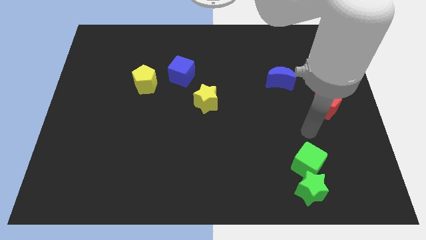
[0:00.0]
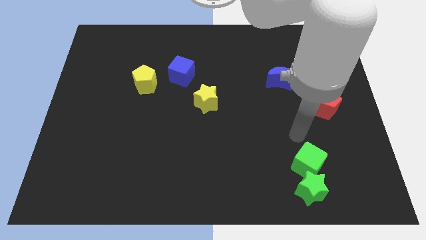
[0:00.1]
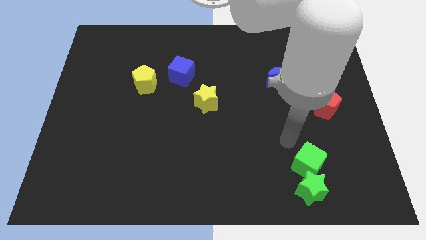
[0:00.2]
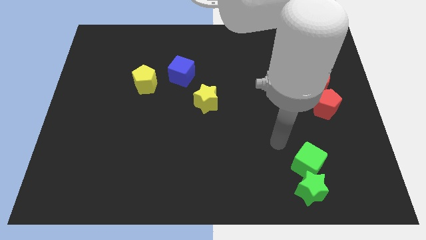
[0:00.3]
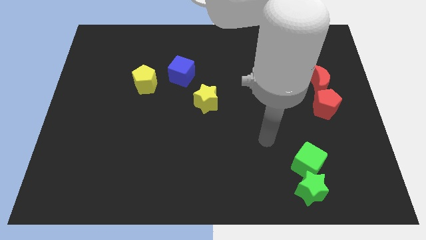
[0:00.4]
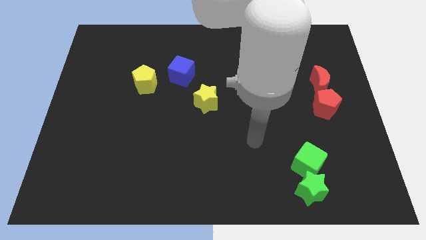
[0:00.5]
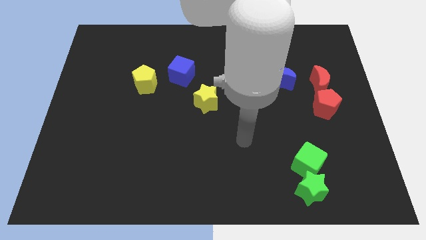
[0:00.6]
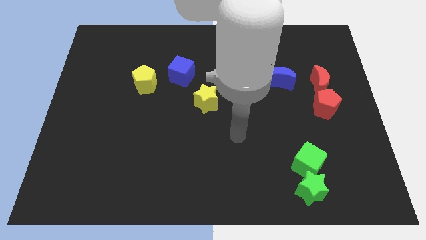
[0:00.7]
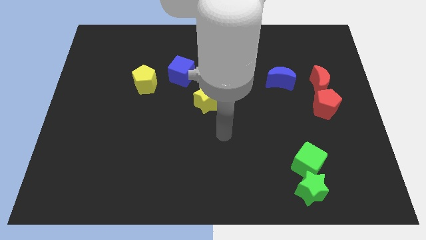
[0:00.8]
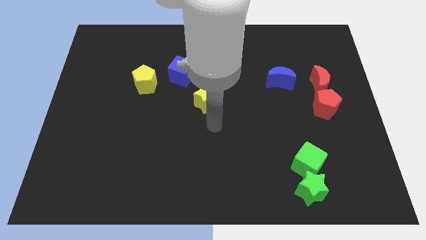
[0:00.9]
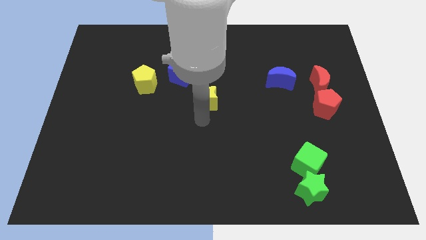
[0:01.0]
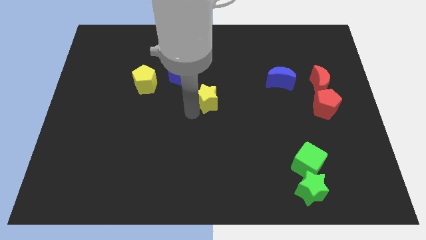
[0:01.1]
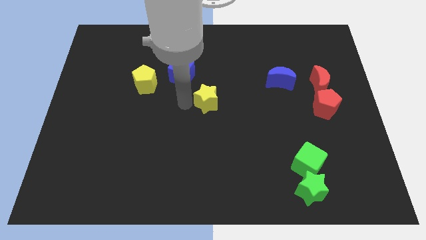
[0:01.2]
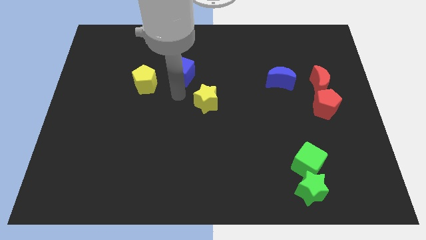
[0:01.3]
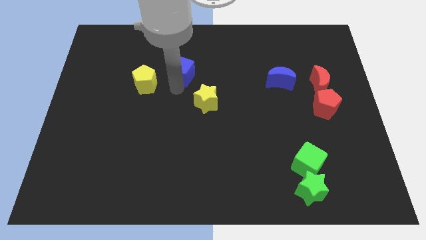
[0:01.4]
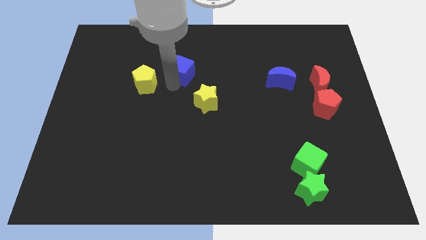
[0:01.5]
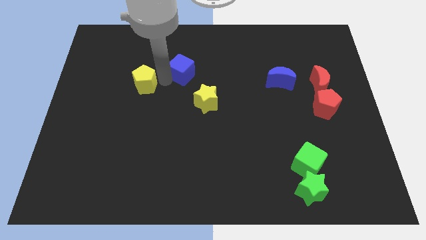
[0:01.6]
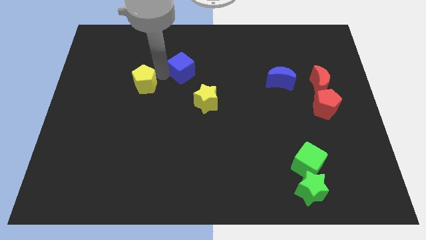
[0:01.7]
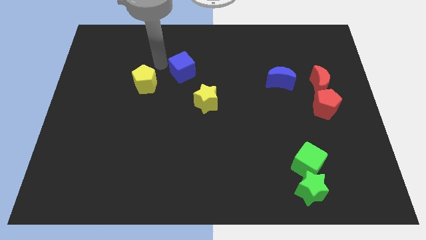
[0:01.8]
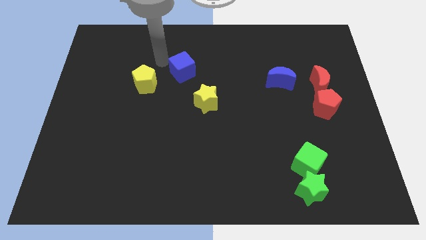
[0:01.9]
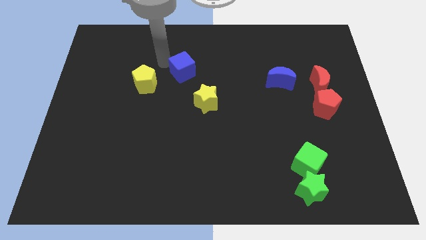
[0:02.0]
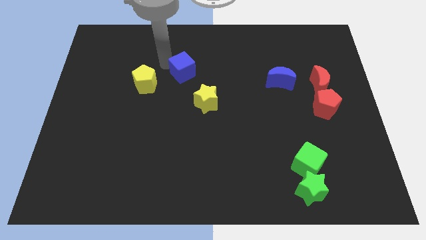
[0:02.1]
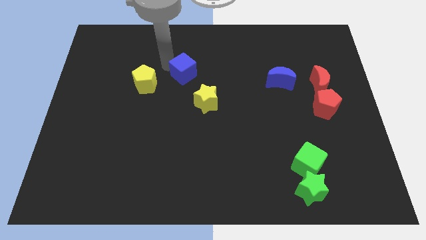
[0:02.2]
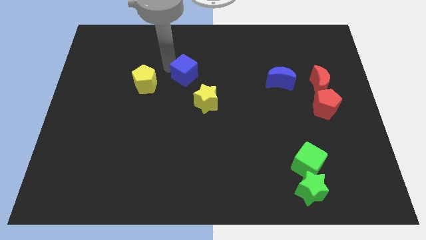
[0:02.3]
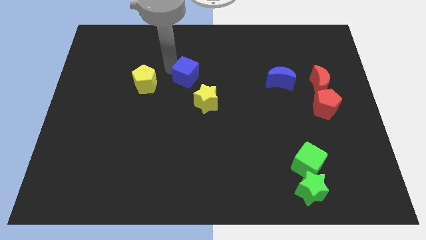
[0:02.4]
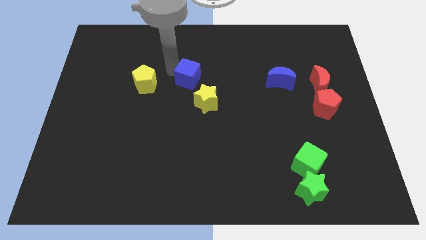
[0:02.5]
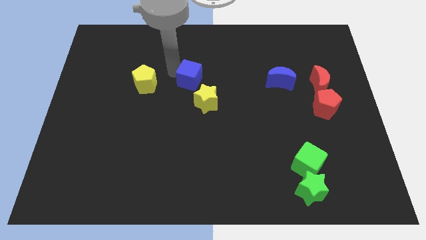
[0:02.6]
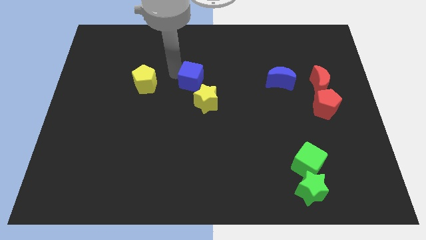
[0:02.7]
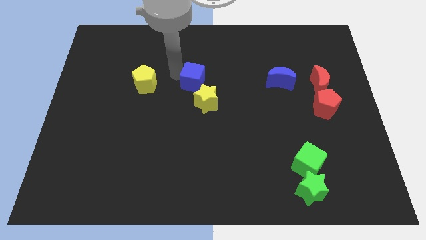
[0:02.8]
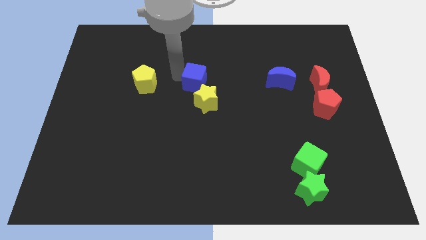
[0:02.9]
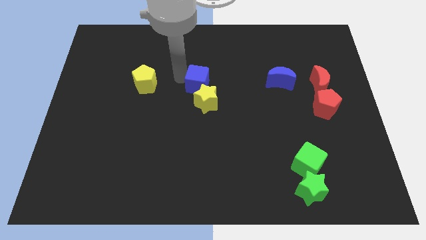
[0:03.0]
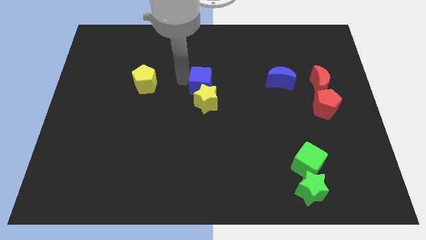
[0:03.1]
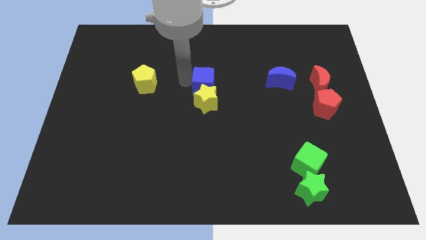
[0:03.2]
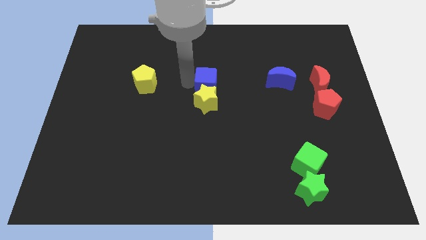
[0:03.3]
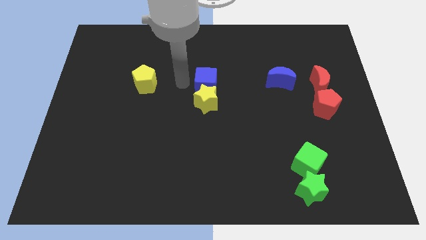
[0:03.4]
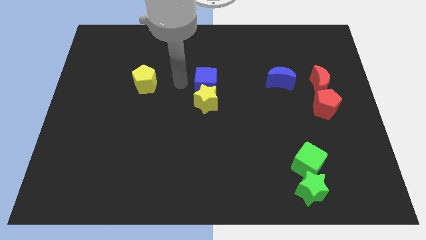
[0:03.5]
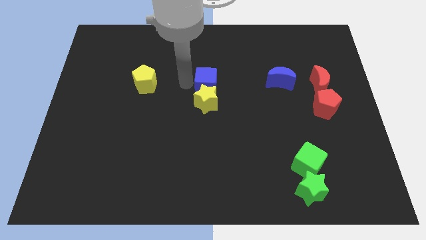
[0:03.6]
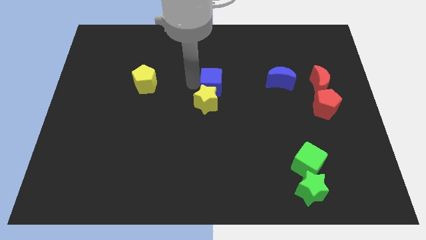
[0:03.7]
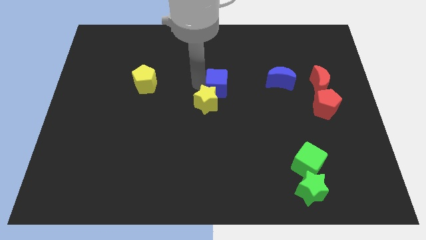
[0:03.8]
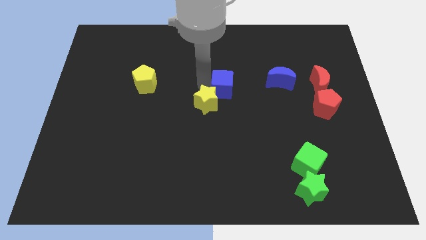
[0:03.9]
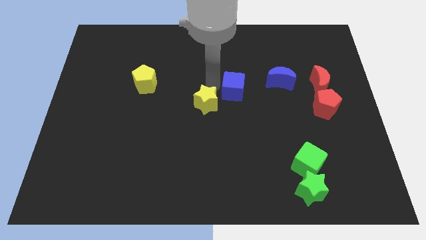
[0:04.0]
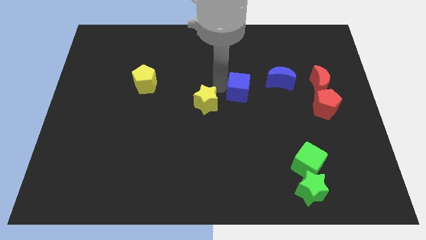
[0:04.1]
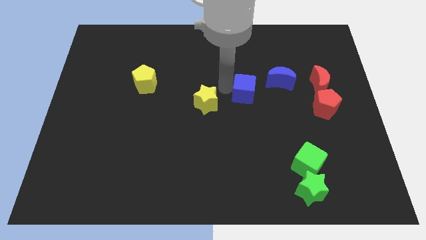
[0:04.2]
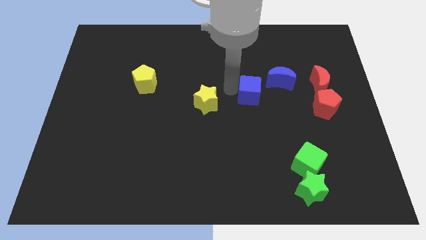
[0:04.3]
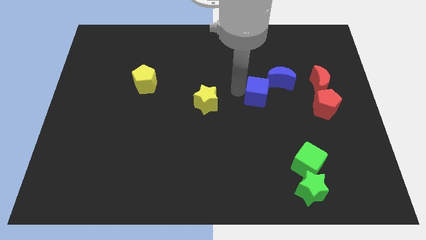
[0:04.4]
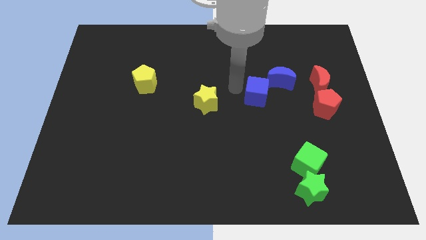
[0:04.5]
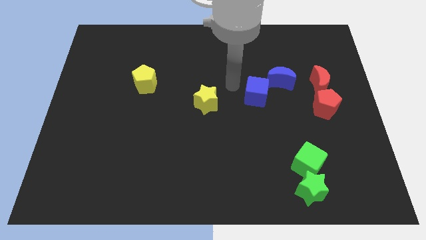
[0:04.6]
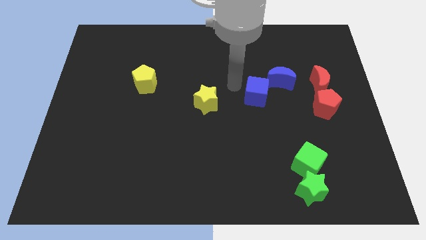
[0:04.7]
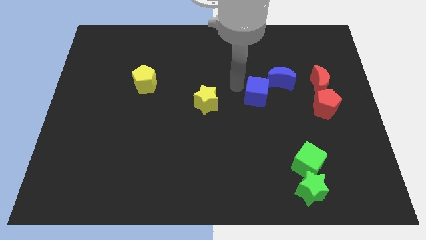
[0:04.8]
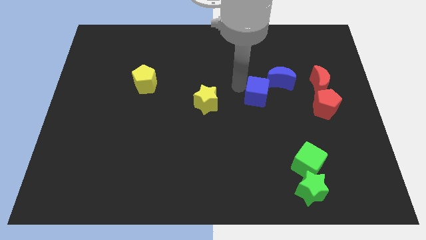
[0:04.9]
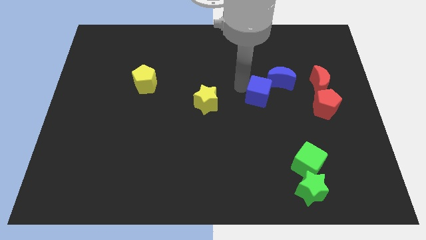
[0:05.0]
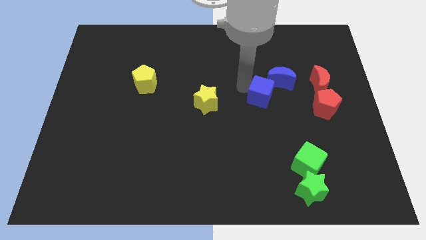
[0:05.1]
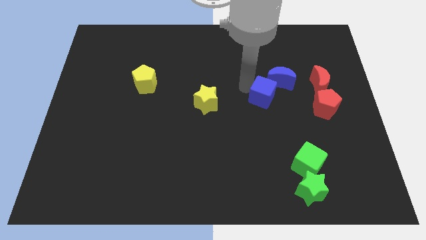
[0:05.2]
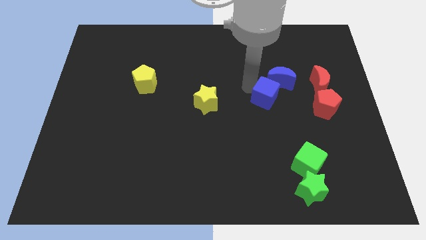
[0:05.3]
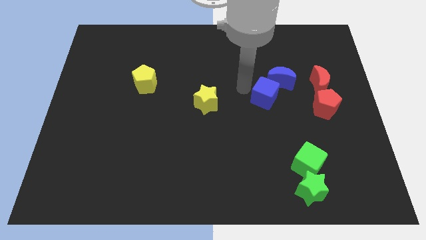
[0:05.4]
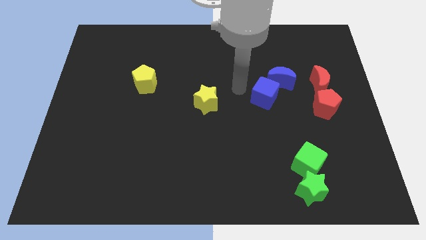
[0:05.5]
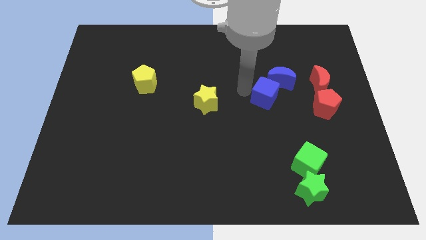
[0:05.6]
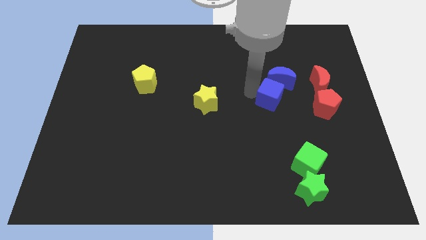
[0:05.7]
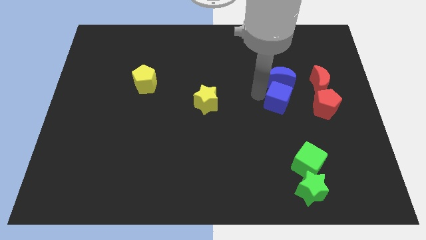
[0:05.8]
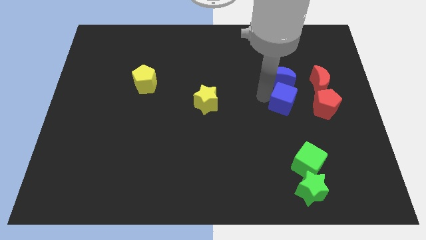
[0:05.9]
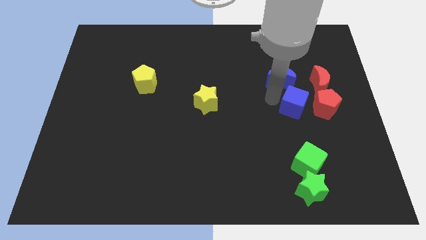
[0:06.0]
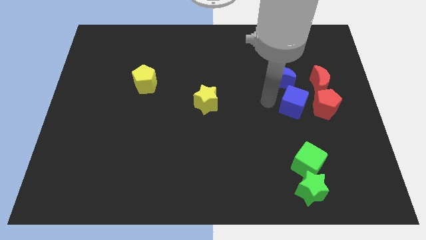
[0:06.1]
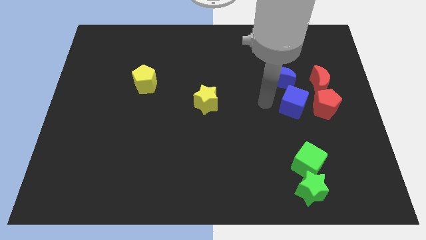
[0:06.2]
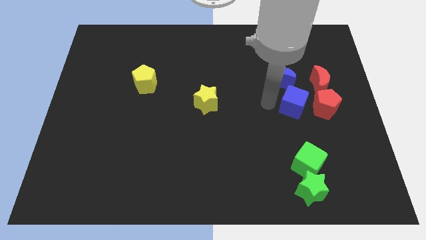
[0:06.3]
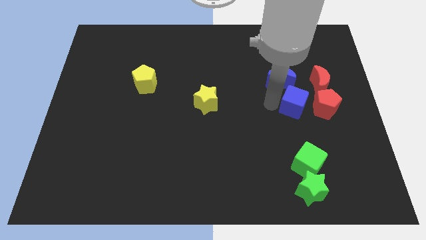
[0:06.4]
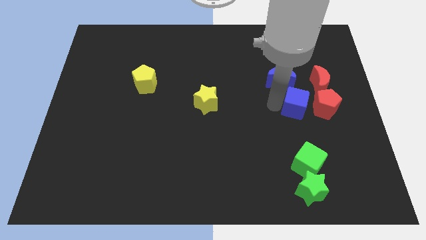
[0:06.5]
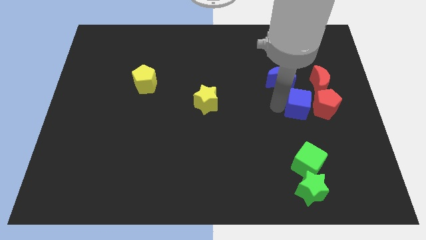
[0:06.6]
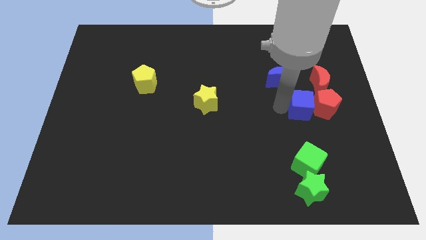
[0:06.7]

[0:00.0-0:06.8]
put the blue cube to the red pentagon
